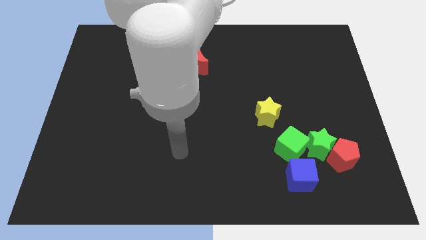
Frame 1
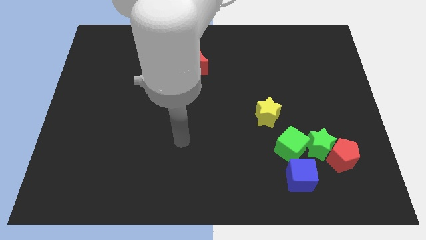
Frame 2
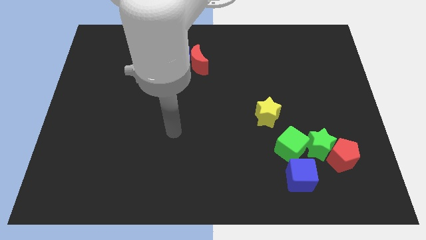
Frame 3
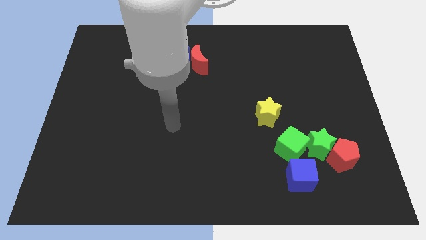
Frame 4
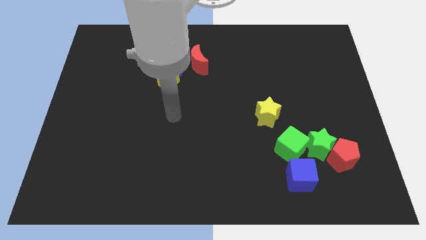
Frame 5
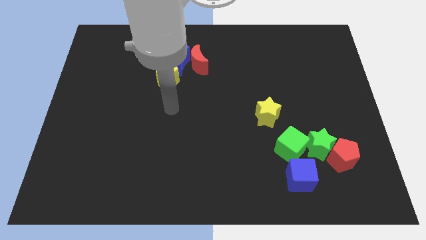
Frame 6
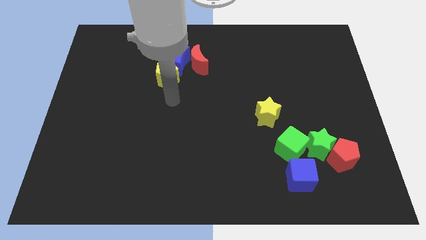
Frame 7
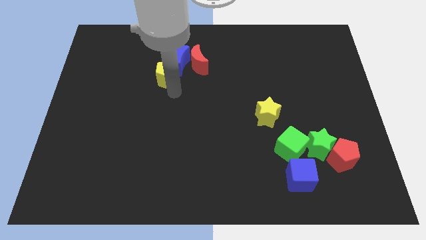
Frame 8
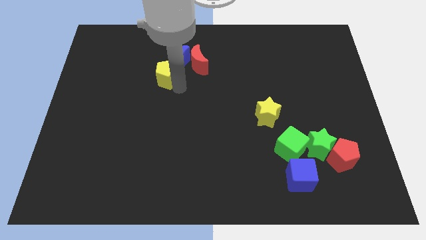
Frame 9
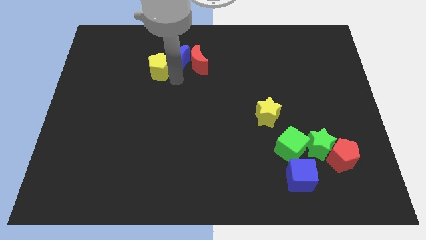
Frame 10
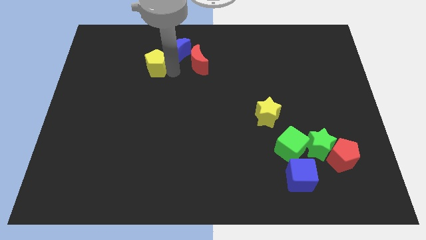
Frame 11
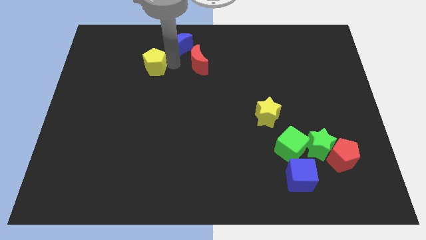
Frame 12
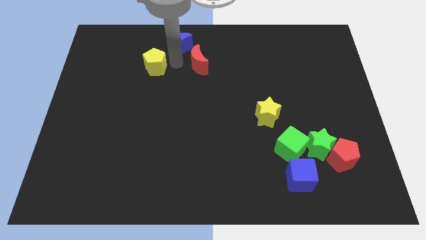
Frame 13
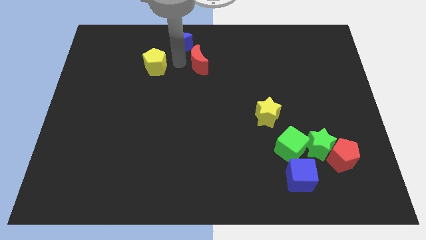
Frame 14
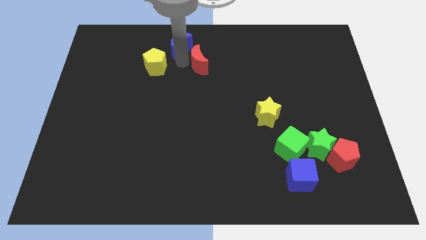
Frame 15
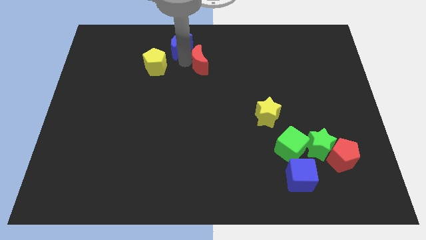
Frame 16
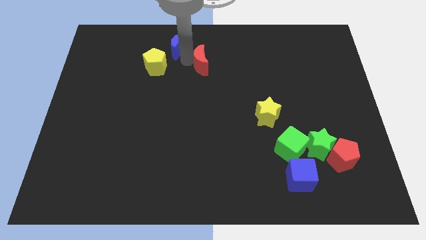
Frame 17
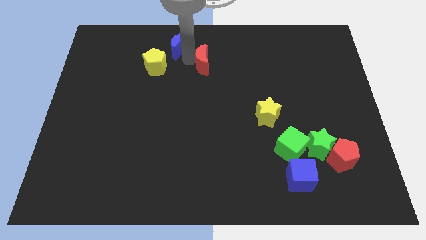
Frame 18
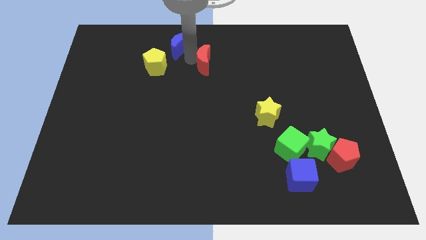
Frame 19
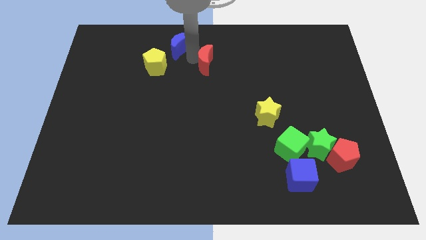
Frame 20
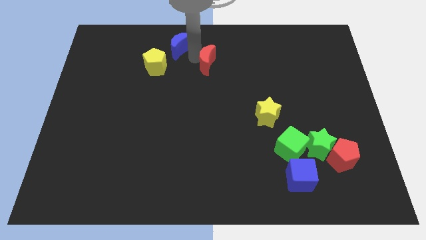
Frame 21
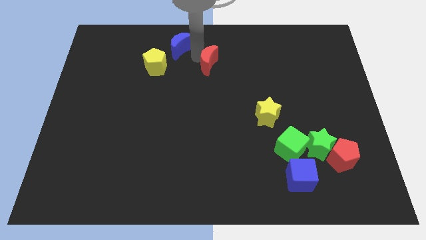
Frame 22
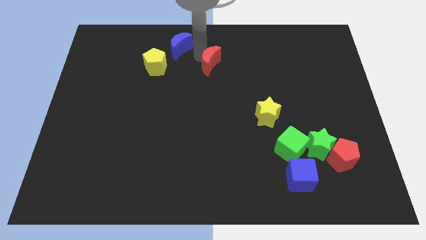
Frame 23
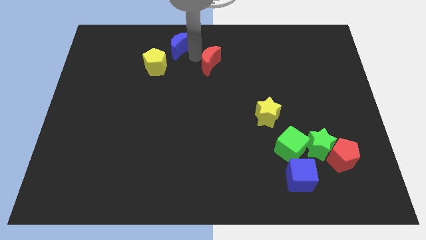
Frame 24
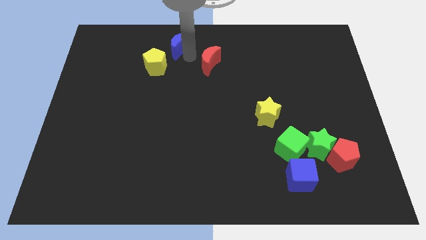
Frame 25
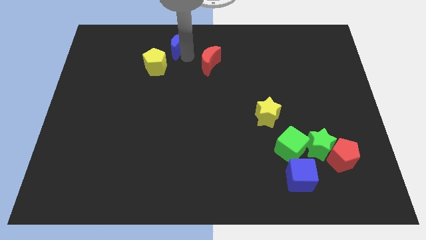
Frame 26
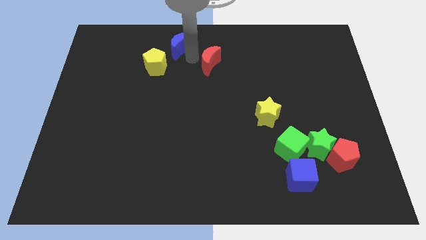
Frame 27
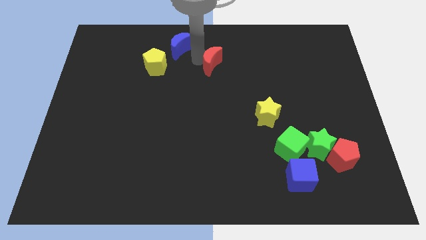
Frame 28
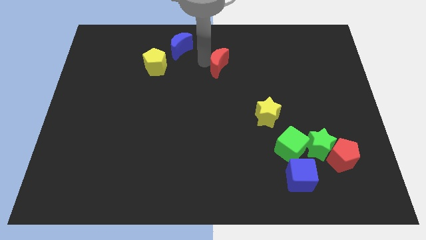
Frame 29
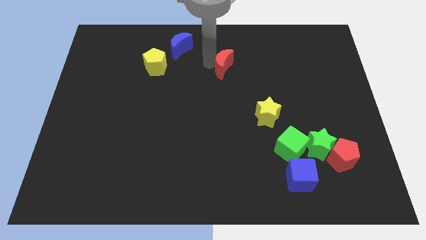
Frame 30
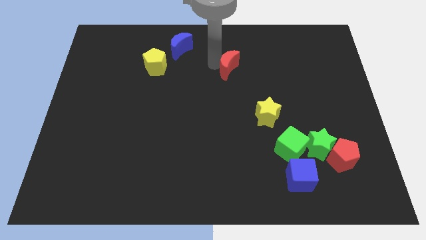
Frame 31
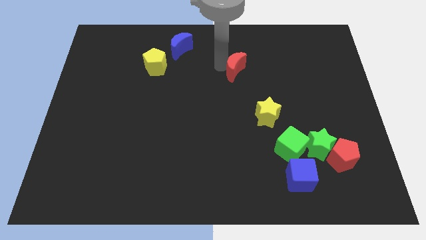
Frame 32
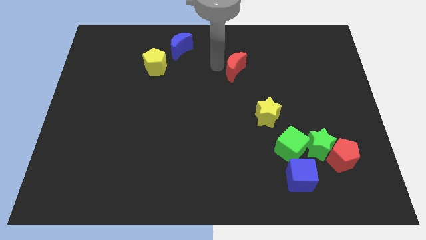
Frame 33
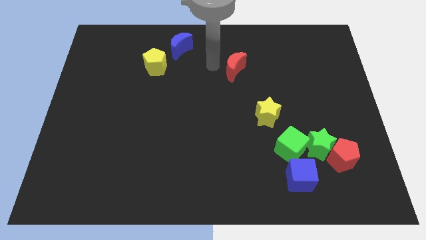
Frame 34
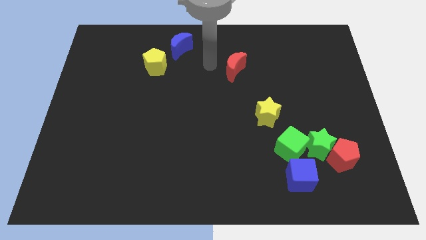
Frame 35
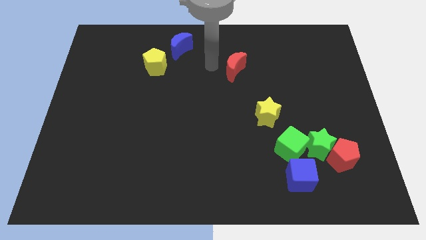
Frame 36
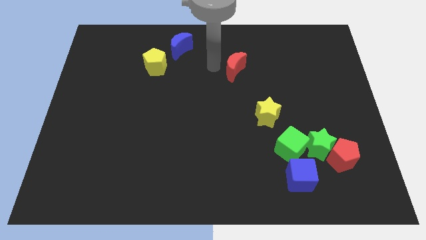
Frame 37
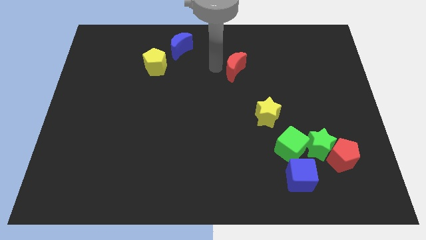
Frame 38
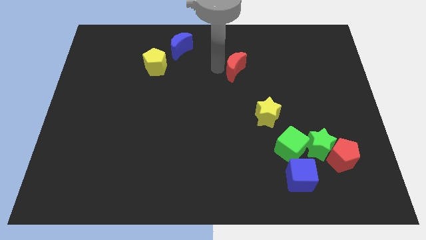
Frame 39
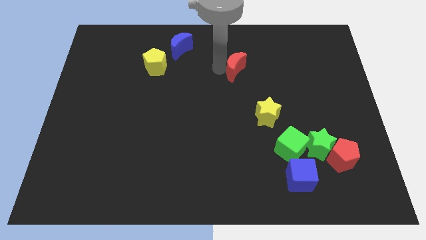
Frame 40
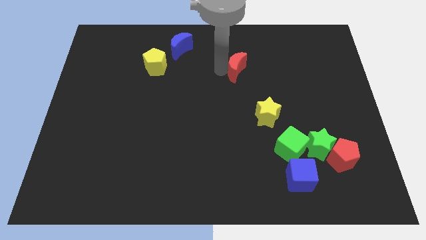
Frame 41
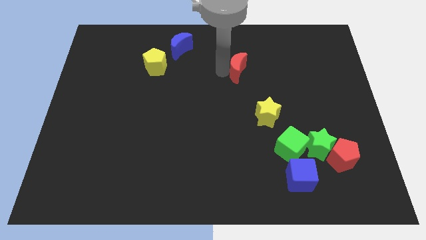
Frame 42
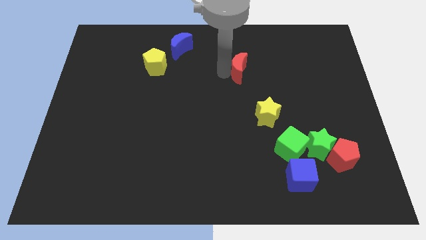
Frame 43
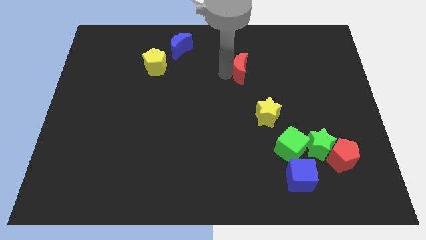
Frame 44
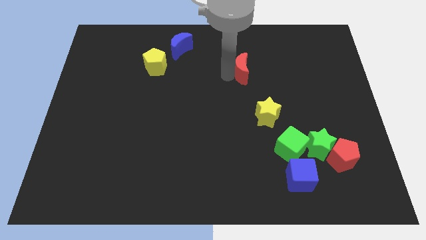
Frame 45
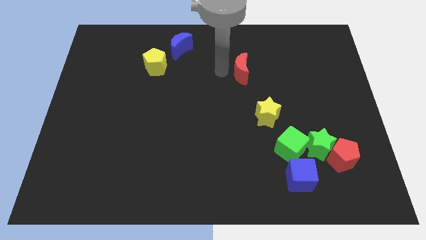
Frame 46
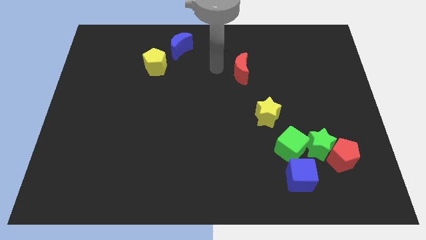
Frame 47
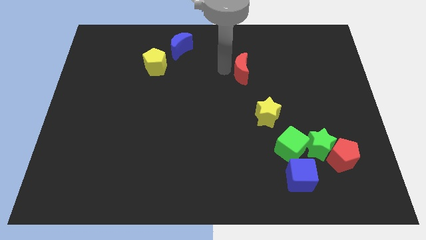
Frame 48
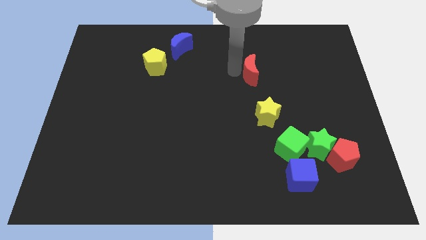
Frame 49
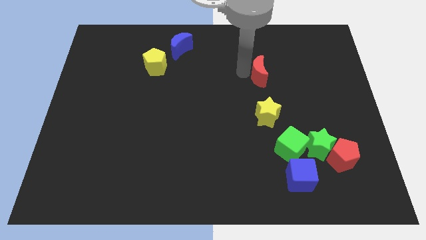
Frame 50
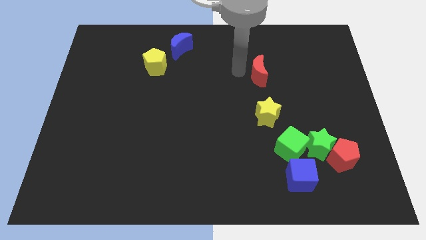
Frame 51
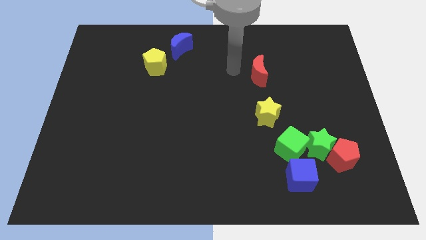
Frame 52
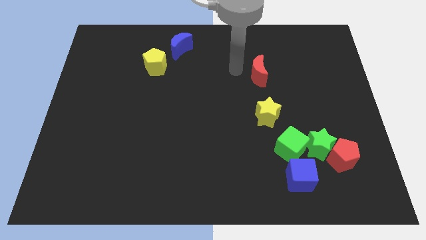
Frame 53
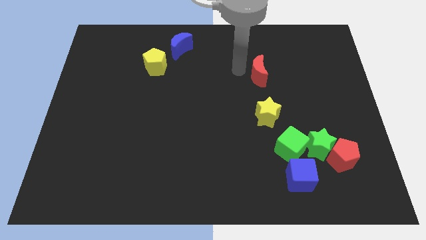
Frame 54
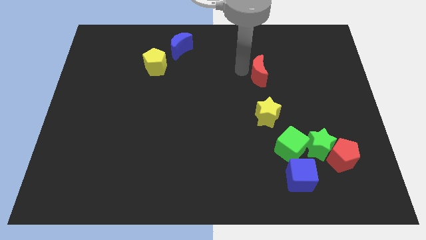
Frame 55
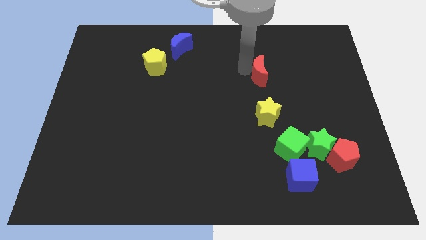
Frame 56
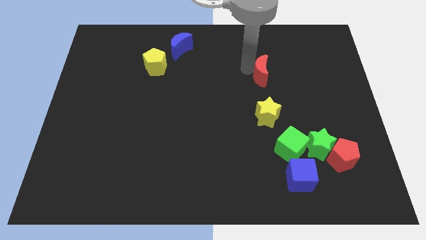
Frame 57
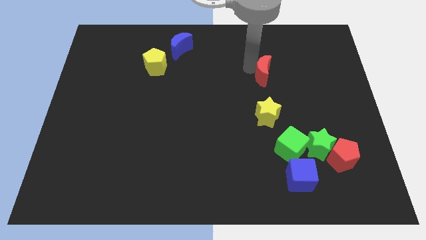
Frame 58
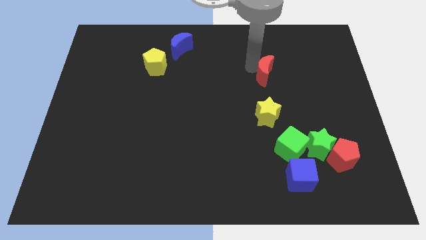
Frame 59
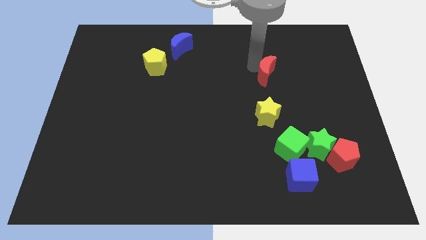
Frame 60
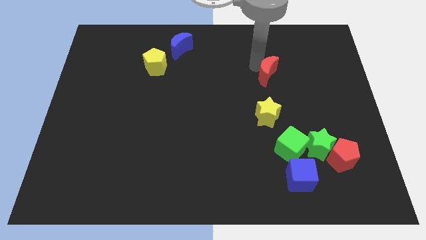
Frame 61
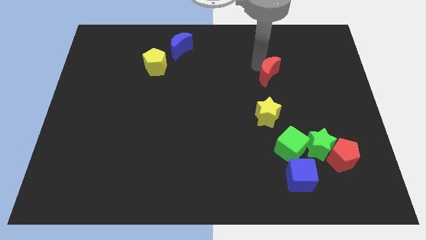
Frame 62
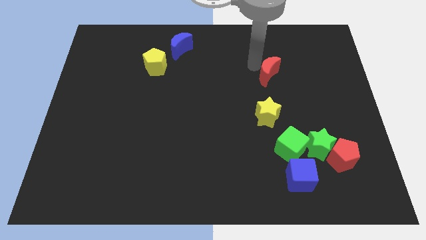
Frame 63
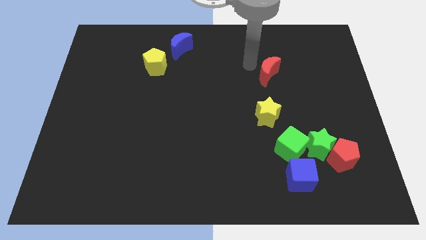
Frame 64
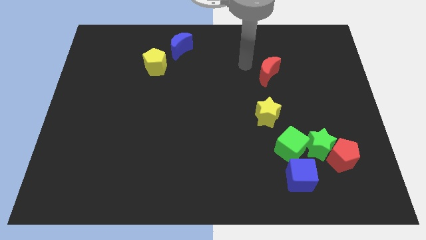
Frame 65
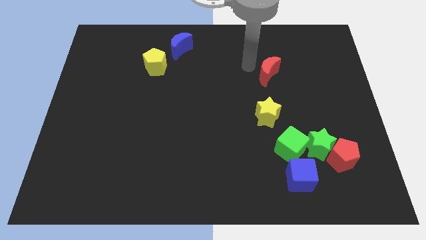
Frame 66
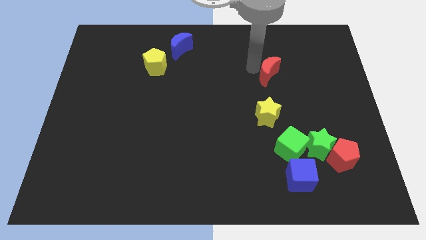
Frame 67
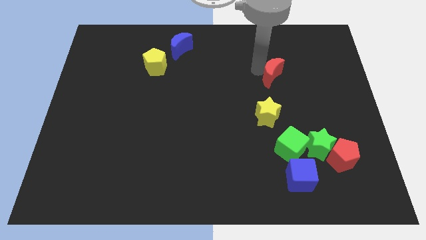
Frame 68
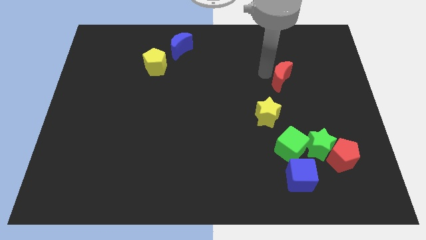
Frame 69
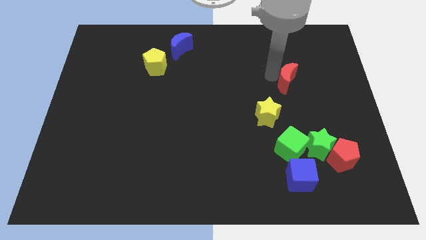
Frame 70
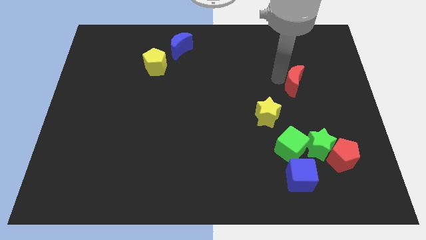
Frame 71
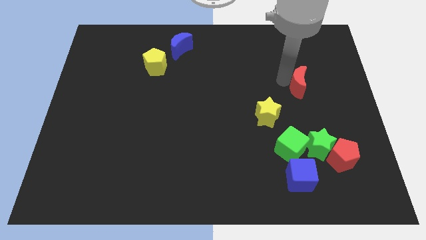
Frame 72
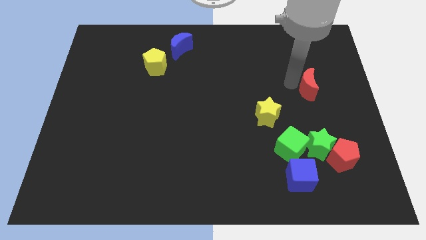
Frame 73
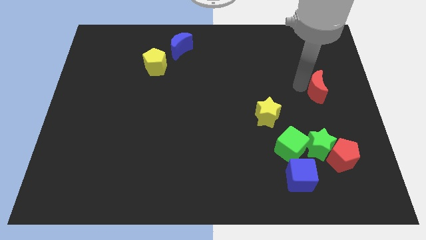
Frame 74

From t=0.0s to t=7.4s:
push the red moon to the right side of the board

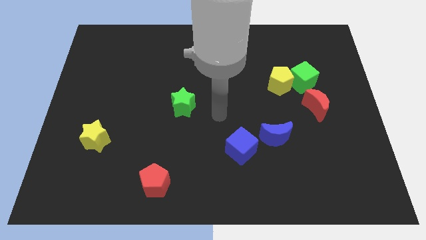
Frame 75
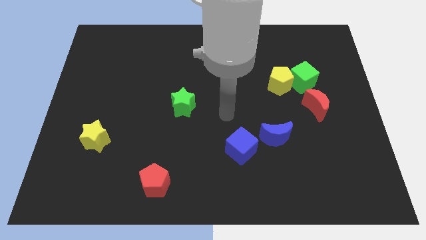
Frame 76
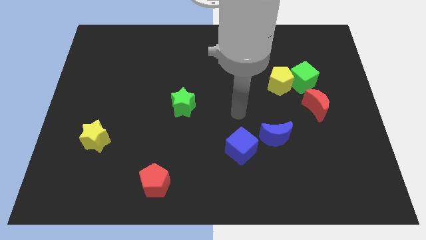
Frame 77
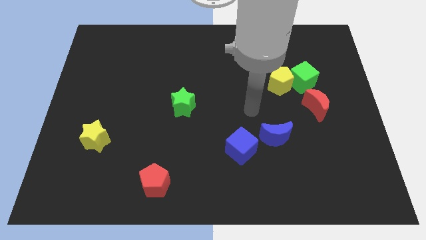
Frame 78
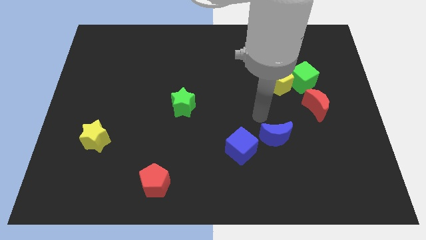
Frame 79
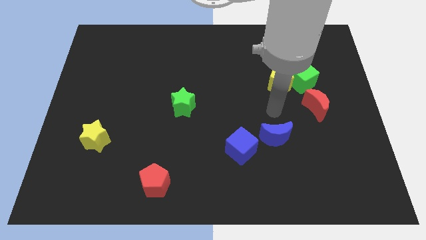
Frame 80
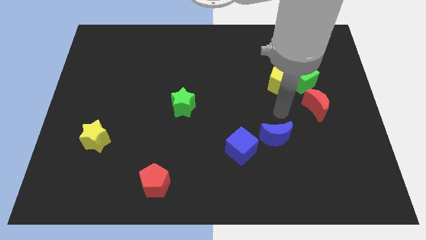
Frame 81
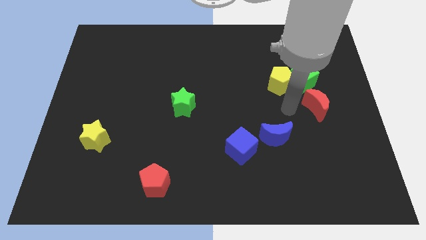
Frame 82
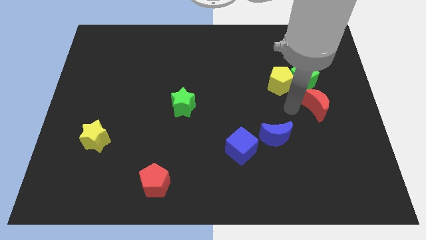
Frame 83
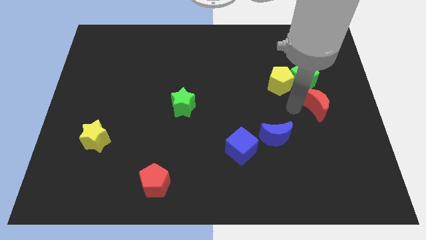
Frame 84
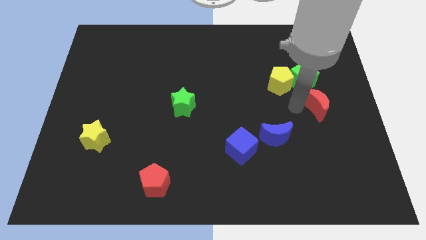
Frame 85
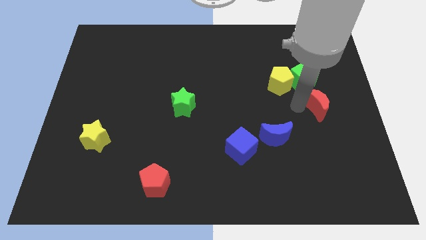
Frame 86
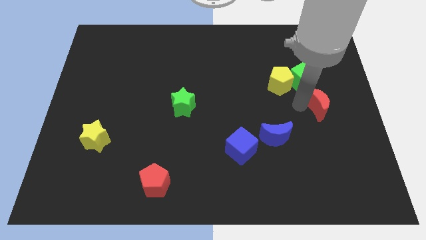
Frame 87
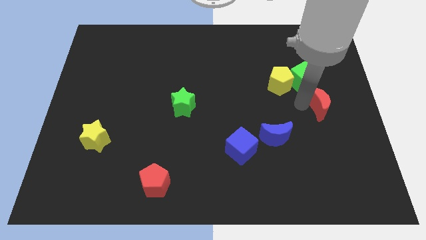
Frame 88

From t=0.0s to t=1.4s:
push the red moon to the right side
